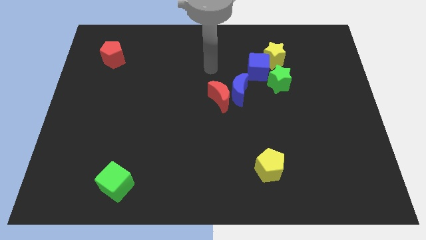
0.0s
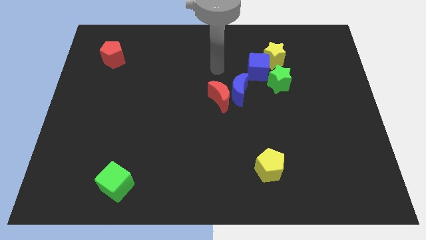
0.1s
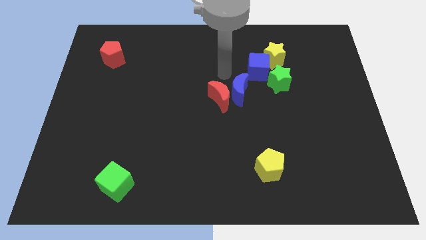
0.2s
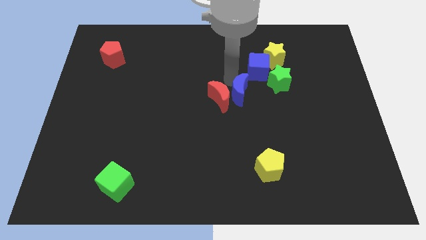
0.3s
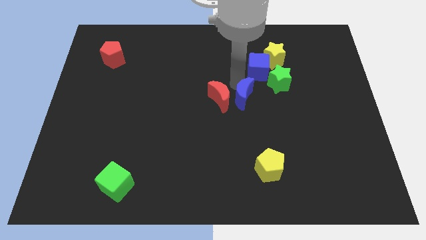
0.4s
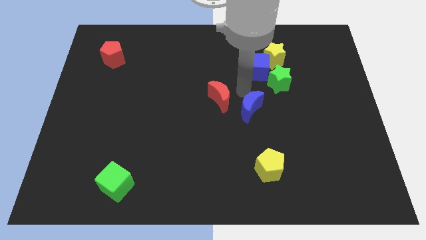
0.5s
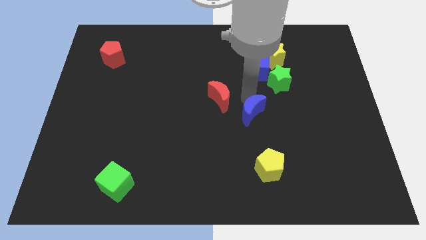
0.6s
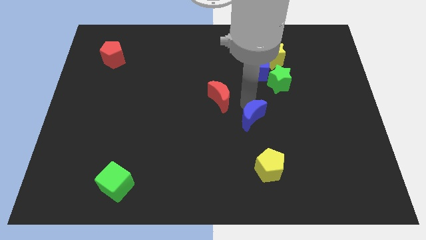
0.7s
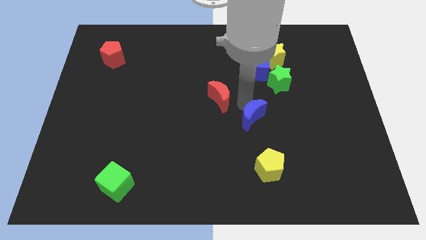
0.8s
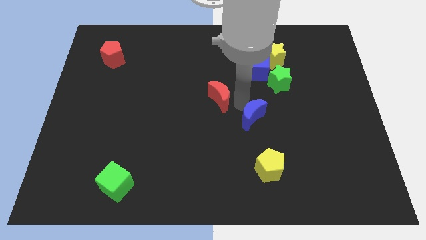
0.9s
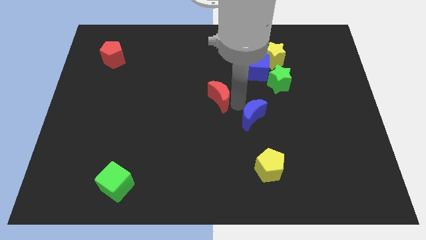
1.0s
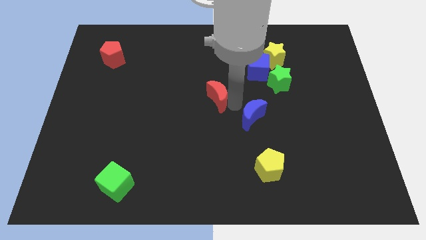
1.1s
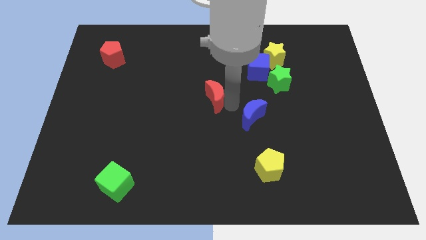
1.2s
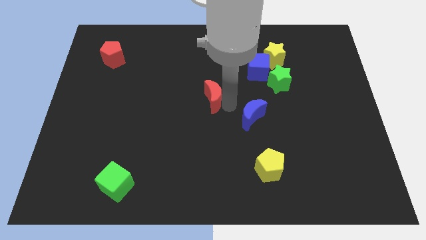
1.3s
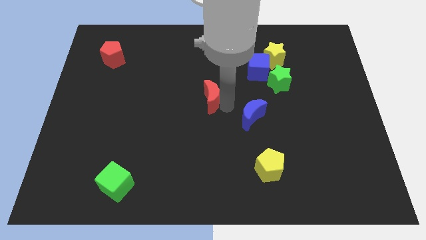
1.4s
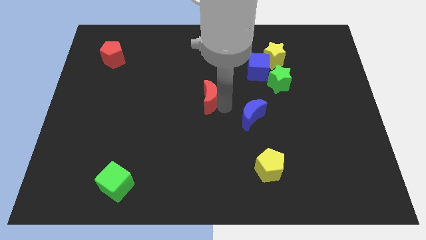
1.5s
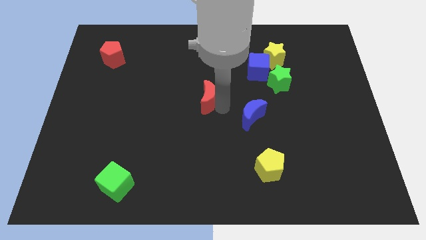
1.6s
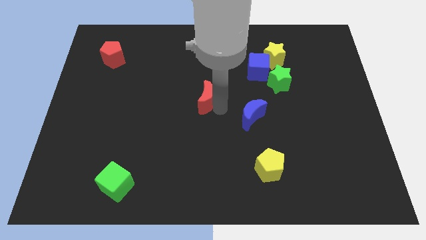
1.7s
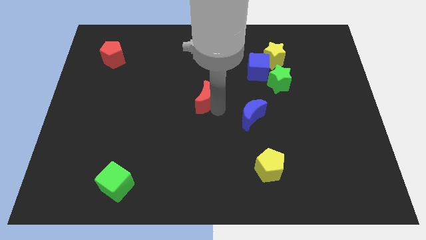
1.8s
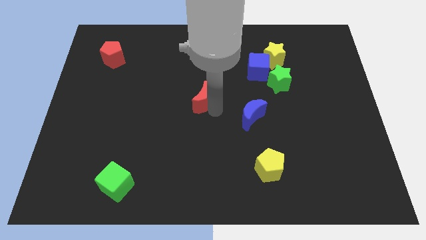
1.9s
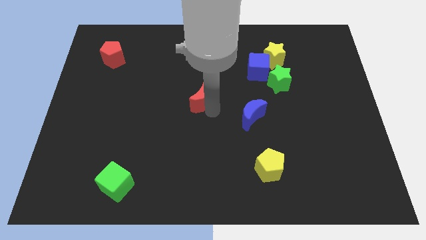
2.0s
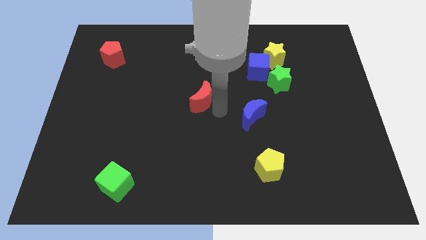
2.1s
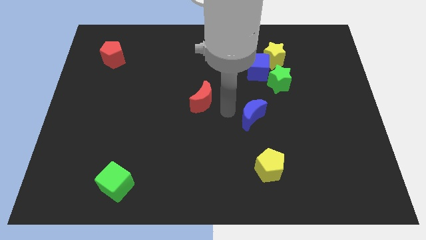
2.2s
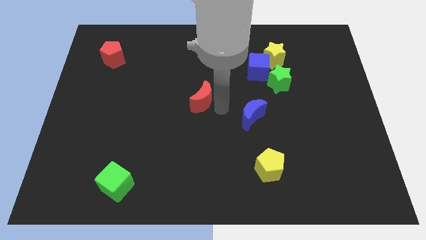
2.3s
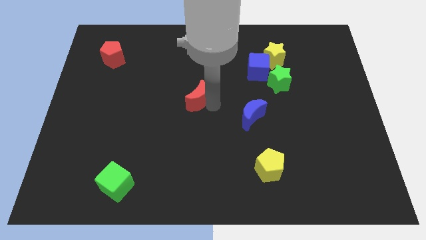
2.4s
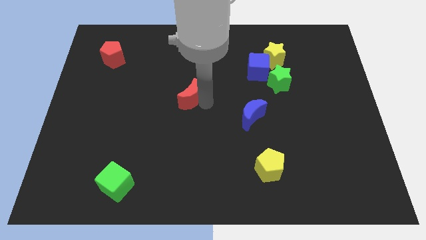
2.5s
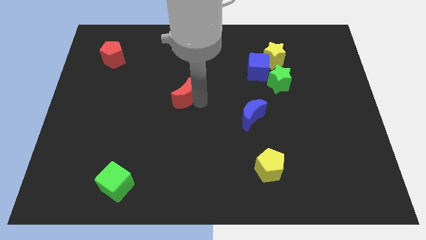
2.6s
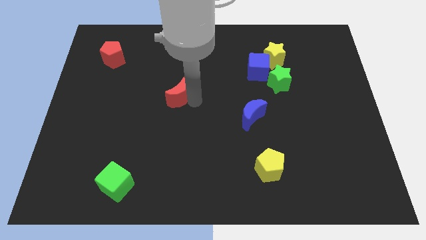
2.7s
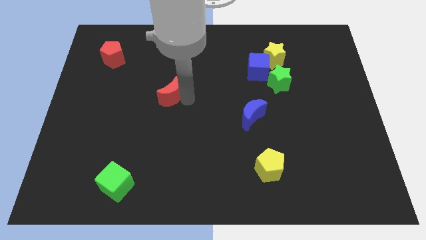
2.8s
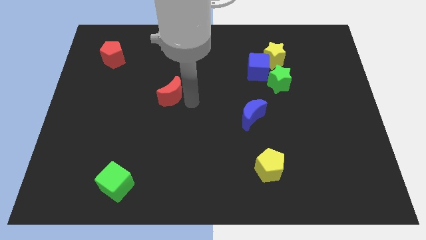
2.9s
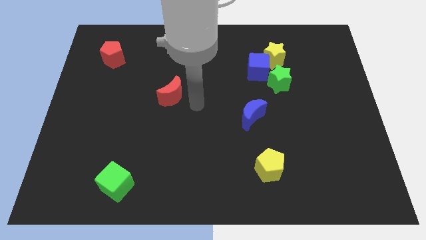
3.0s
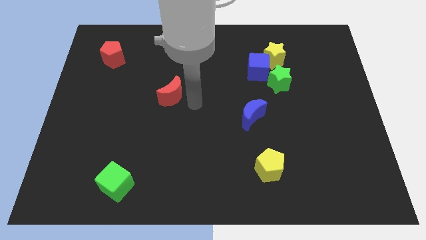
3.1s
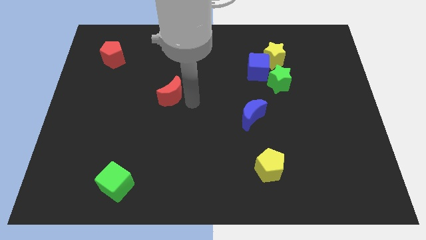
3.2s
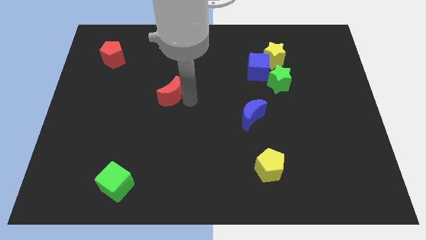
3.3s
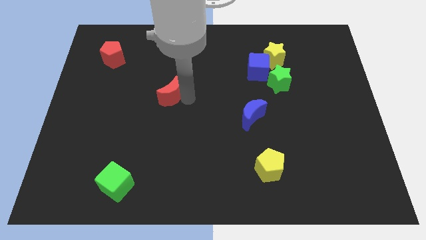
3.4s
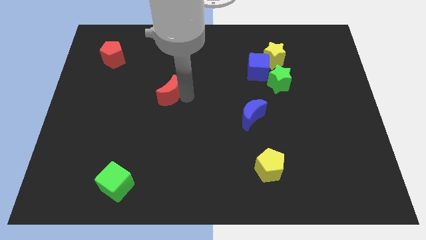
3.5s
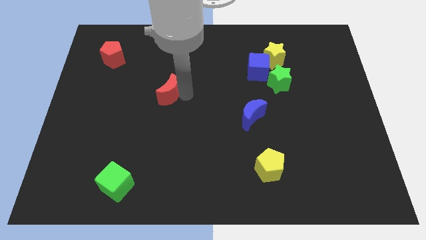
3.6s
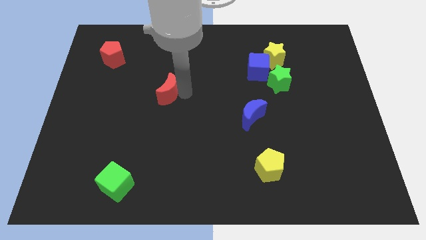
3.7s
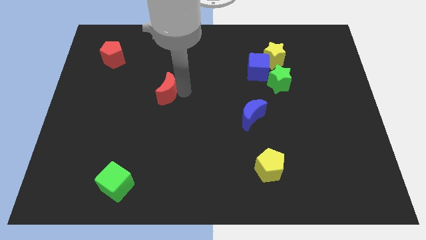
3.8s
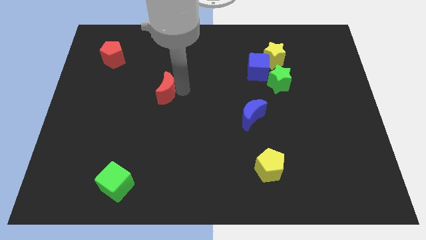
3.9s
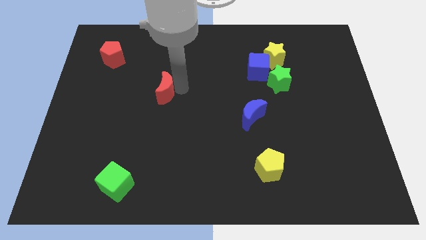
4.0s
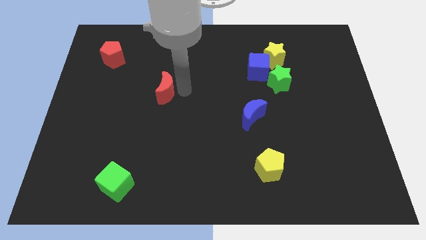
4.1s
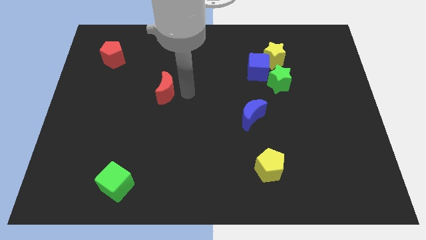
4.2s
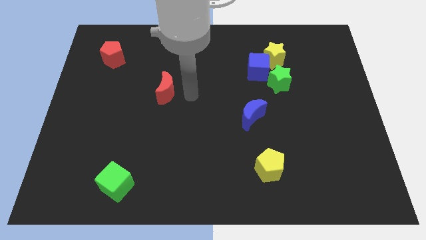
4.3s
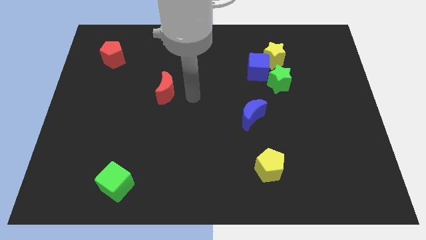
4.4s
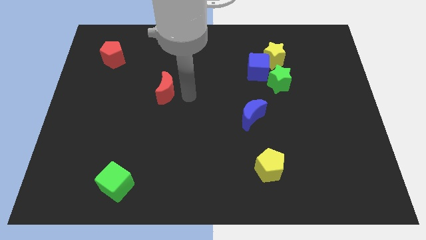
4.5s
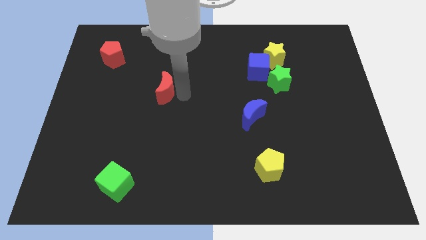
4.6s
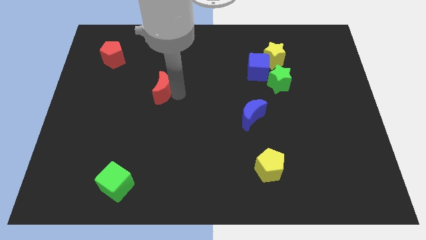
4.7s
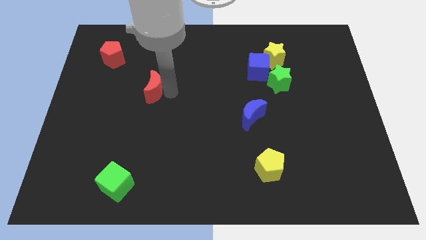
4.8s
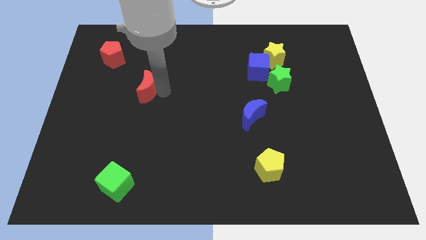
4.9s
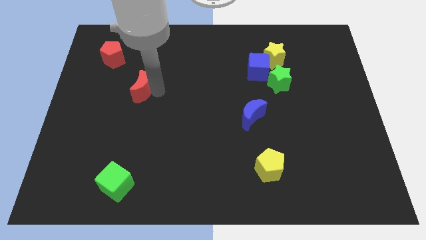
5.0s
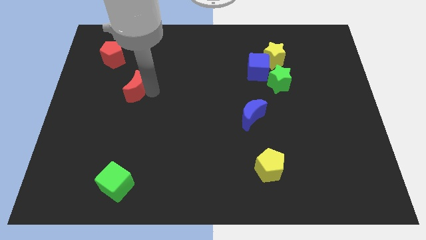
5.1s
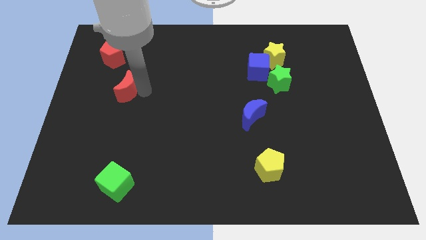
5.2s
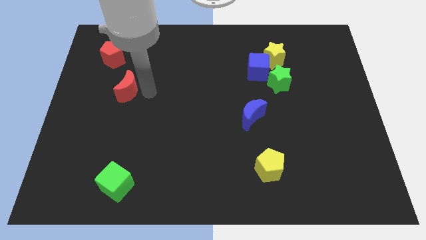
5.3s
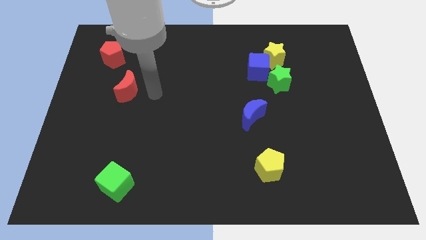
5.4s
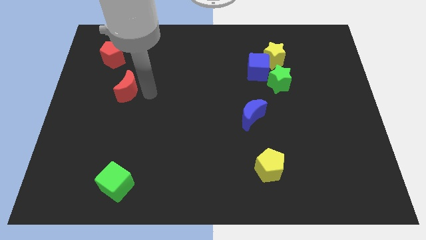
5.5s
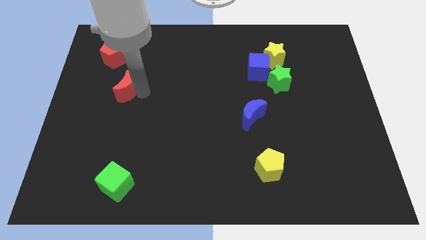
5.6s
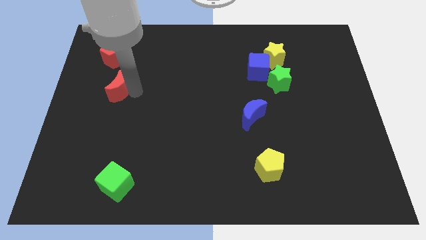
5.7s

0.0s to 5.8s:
slide the red moon below the red pentagon

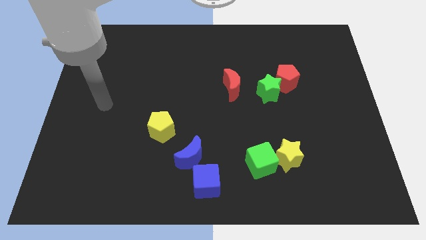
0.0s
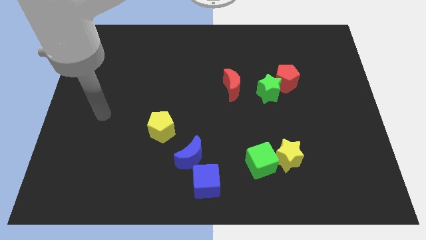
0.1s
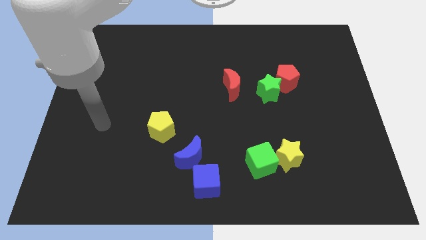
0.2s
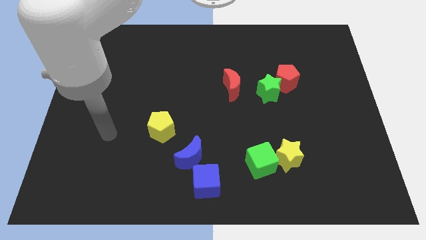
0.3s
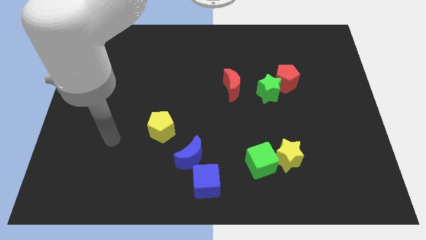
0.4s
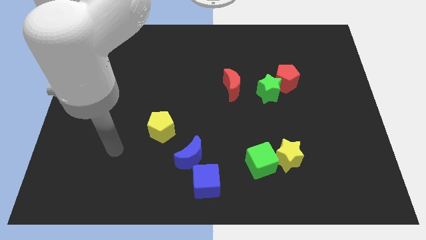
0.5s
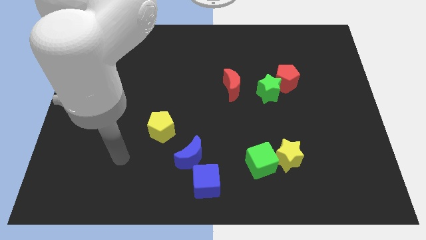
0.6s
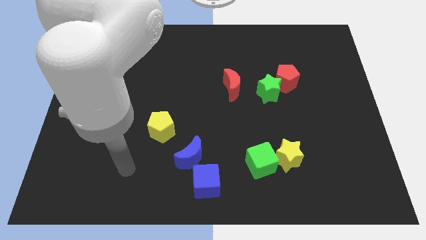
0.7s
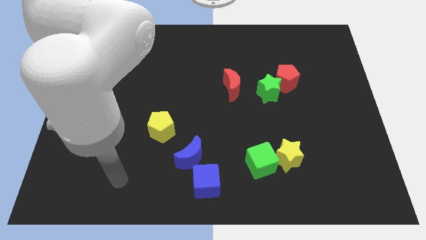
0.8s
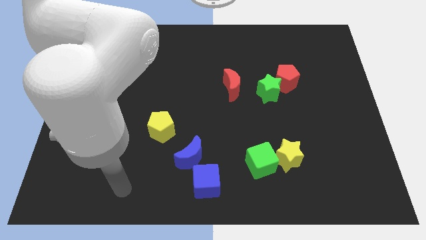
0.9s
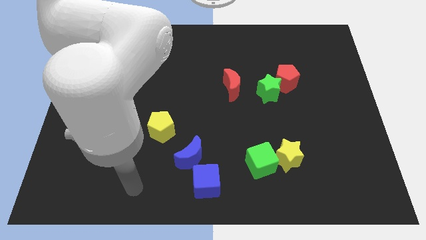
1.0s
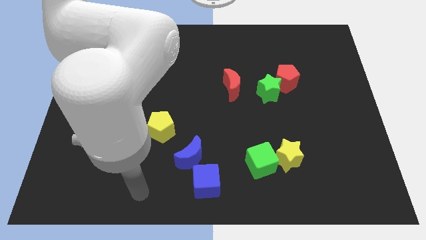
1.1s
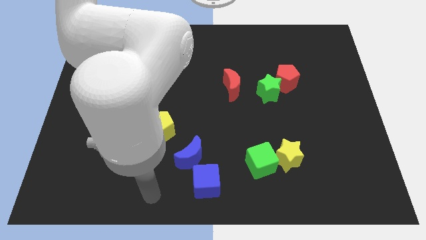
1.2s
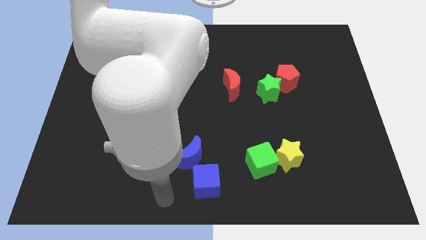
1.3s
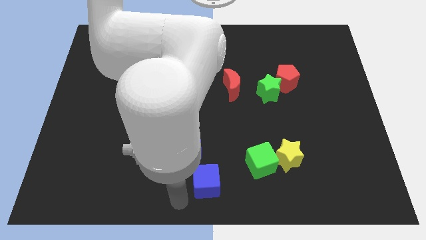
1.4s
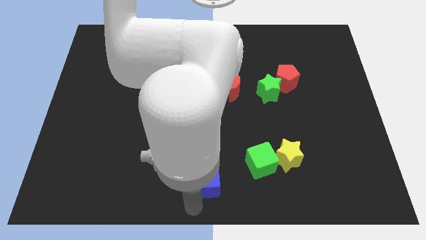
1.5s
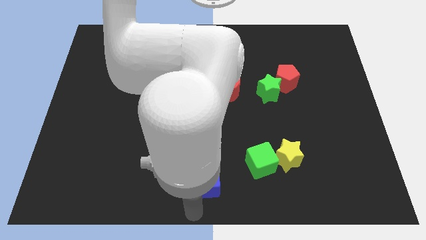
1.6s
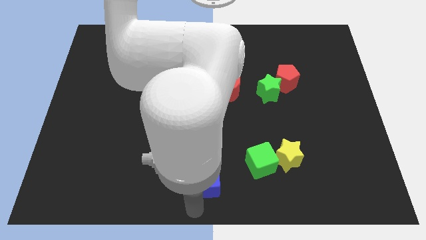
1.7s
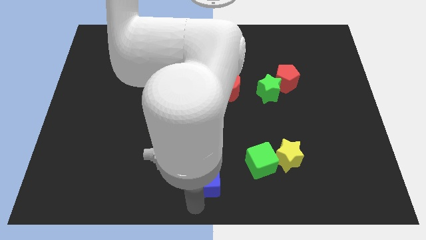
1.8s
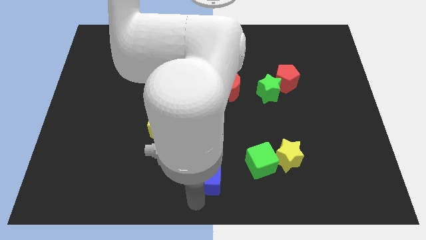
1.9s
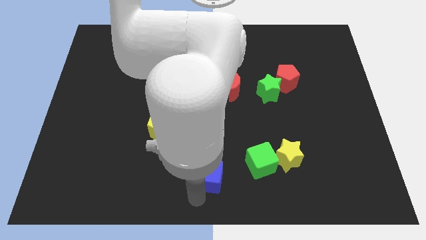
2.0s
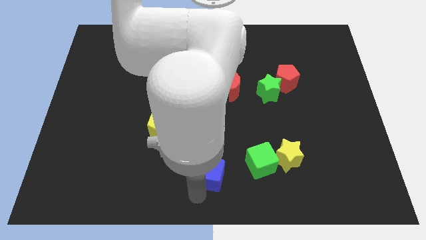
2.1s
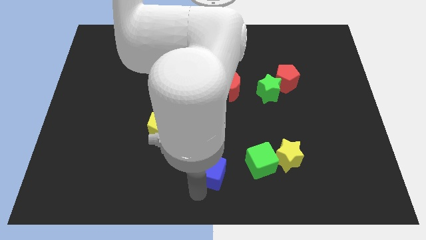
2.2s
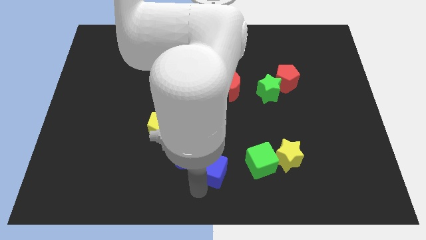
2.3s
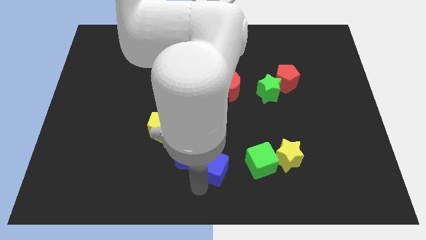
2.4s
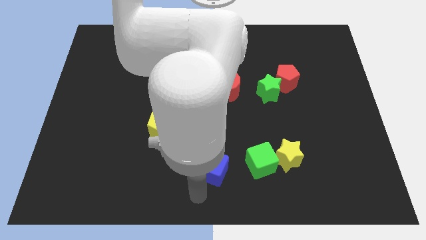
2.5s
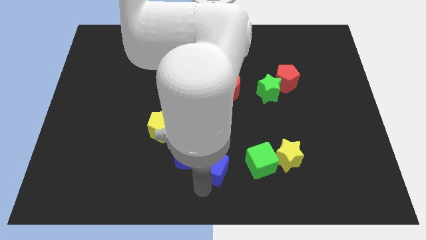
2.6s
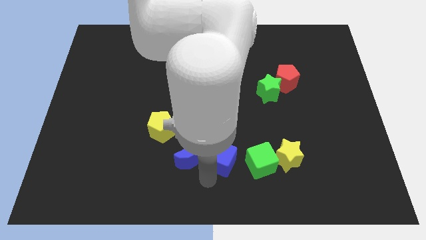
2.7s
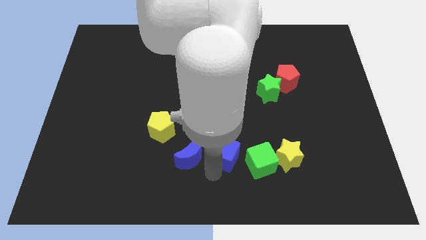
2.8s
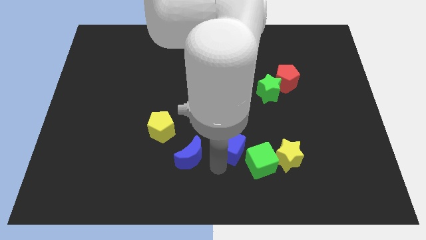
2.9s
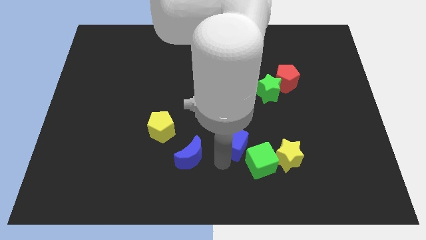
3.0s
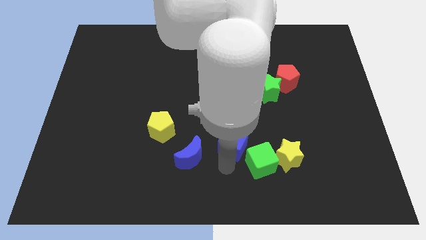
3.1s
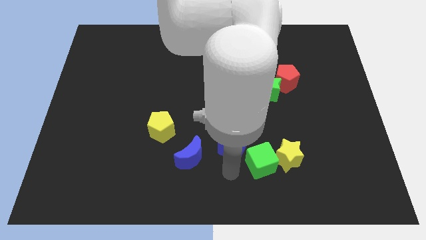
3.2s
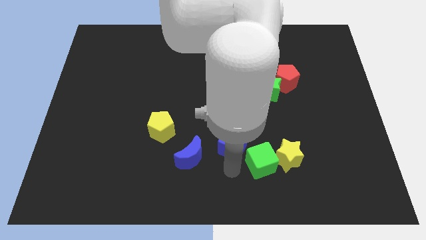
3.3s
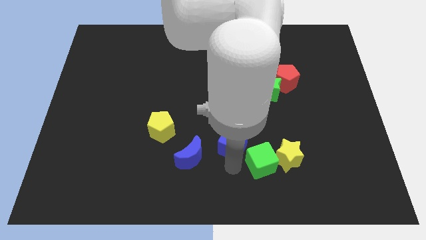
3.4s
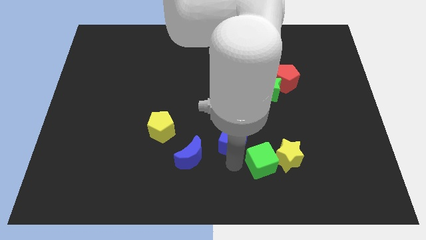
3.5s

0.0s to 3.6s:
move the blue cube to the bottom side of the red moon
